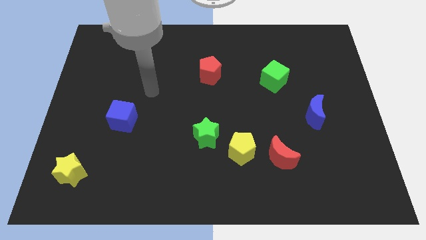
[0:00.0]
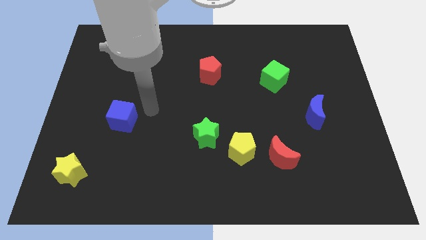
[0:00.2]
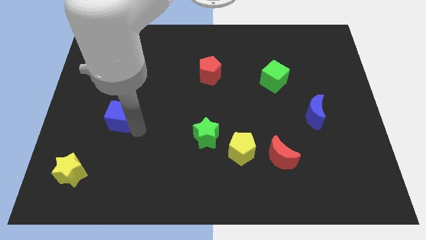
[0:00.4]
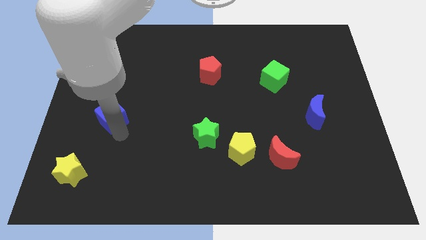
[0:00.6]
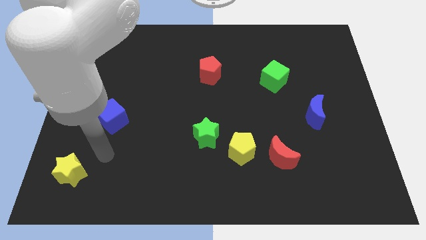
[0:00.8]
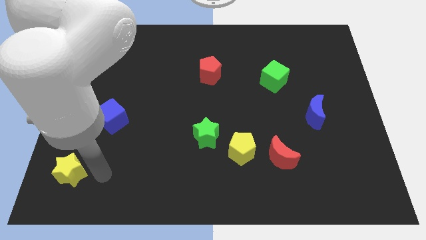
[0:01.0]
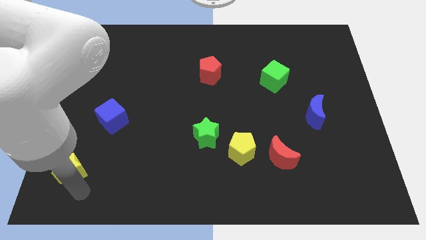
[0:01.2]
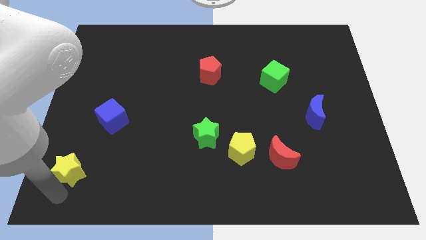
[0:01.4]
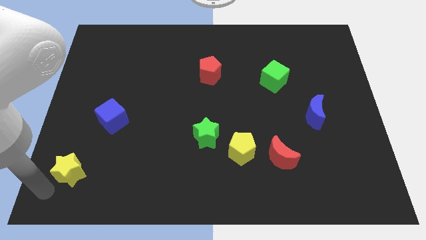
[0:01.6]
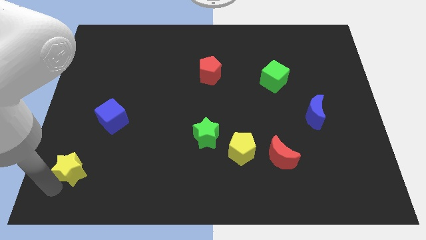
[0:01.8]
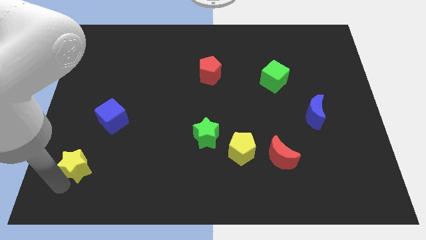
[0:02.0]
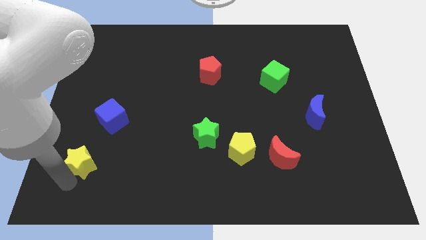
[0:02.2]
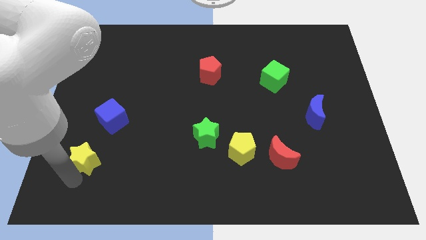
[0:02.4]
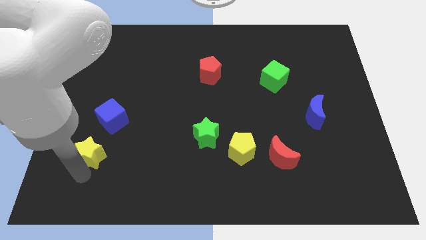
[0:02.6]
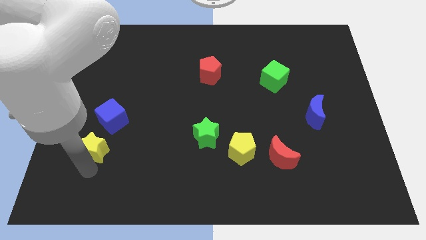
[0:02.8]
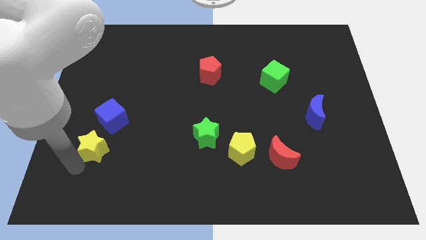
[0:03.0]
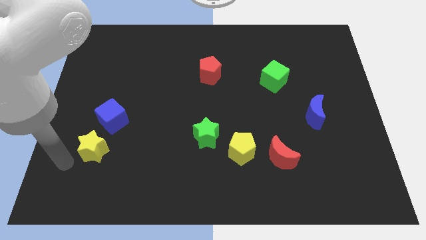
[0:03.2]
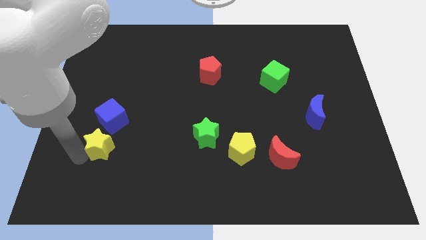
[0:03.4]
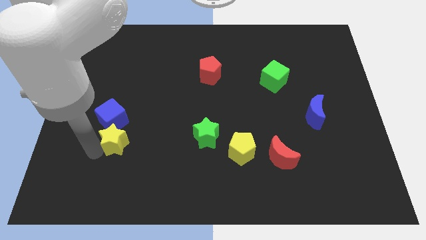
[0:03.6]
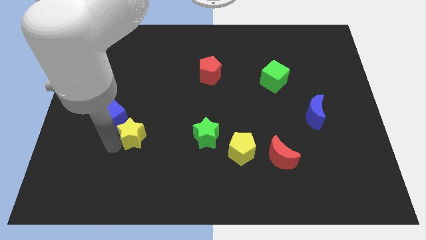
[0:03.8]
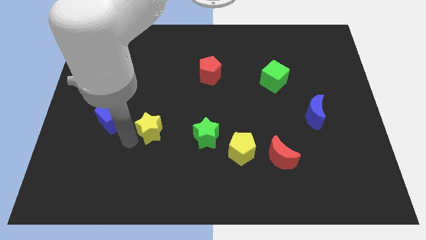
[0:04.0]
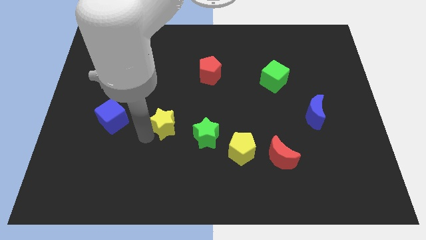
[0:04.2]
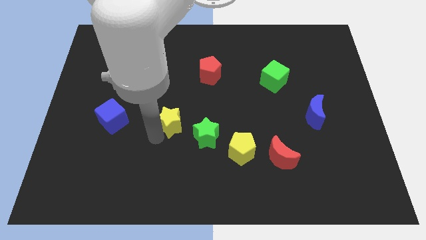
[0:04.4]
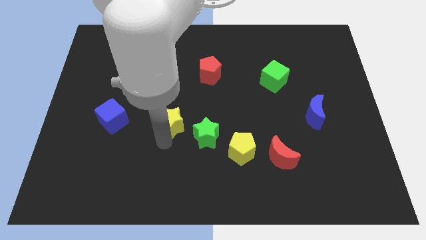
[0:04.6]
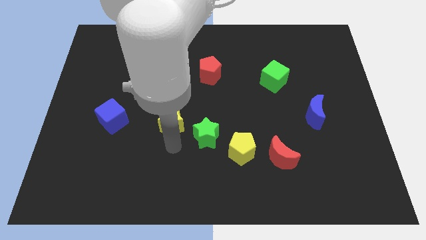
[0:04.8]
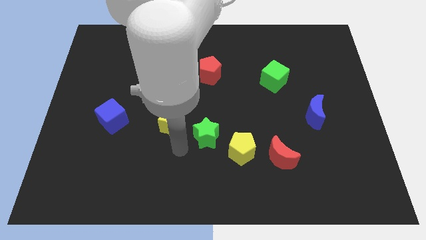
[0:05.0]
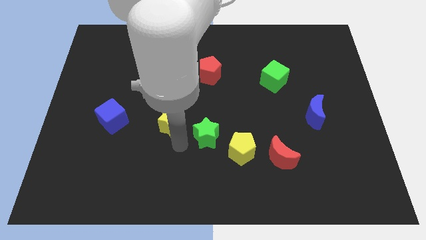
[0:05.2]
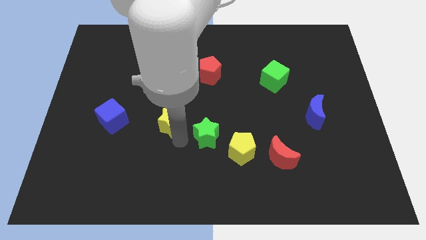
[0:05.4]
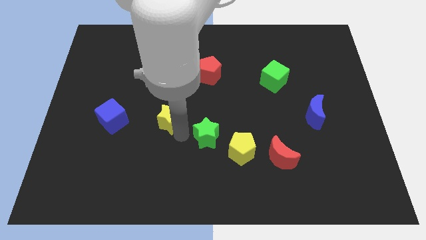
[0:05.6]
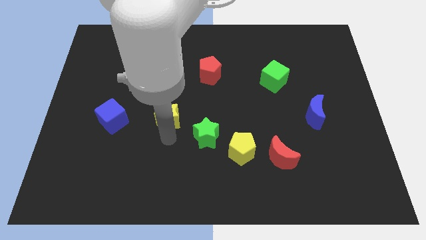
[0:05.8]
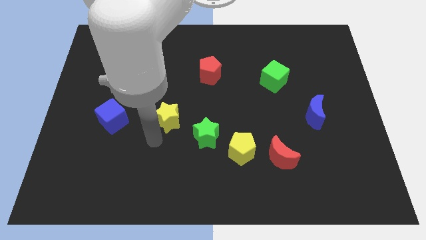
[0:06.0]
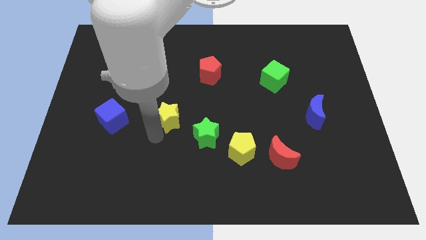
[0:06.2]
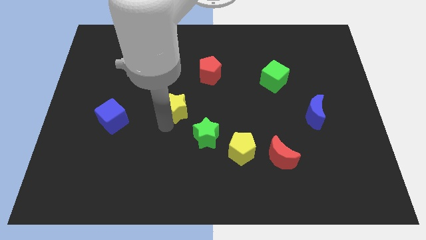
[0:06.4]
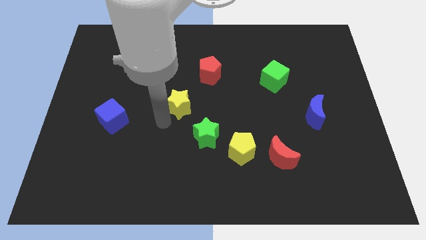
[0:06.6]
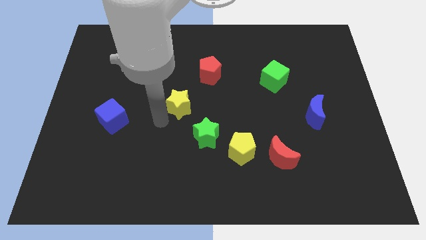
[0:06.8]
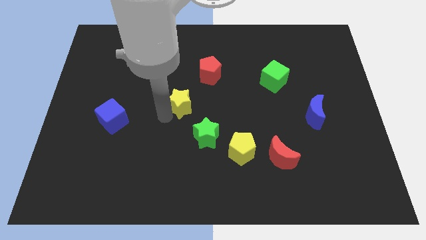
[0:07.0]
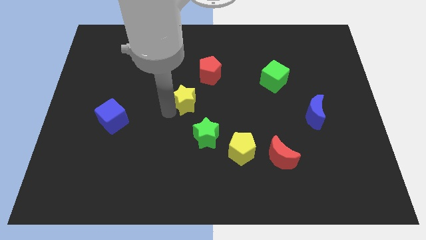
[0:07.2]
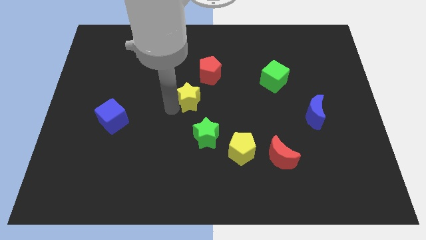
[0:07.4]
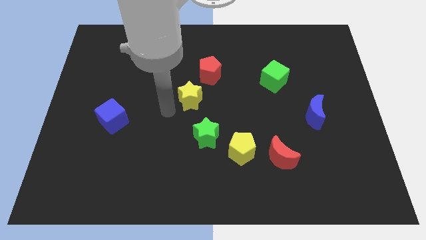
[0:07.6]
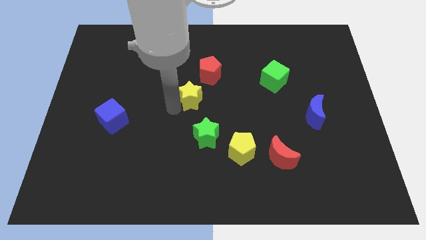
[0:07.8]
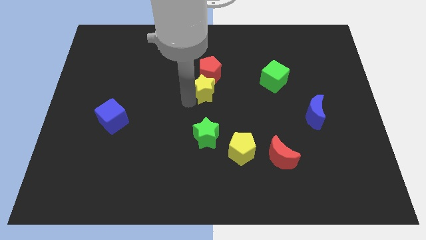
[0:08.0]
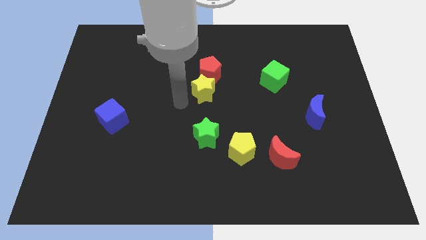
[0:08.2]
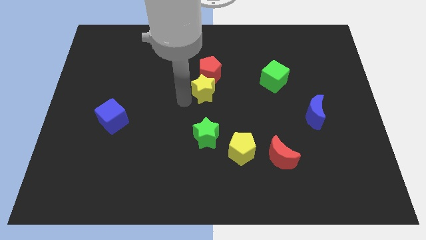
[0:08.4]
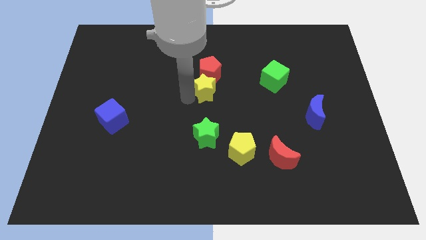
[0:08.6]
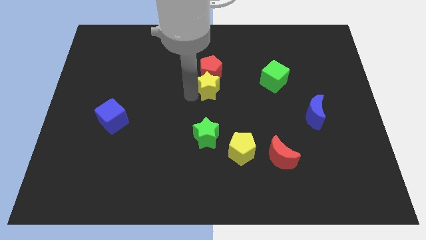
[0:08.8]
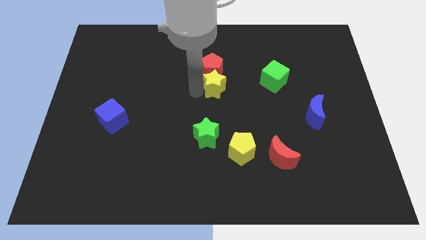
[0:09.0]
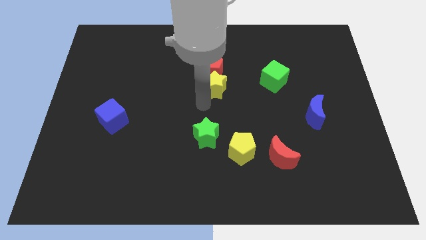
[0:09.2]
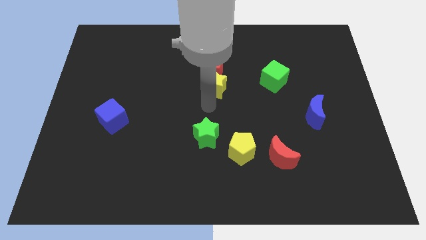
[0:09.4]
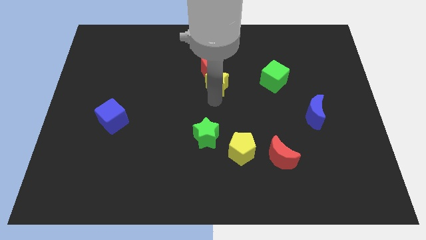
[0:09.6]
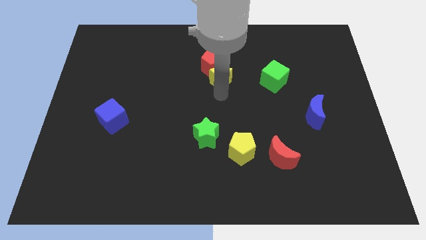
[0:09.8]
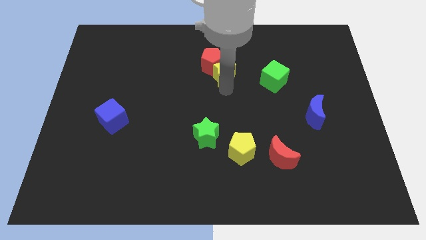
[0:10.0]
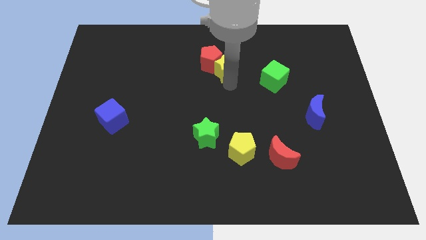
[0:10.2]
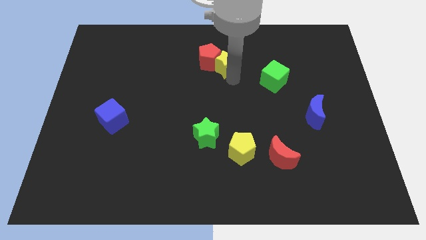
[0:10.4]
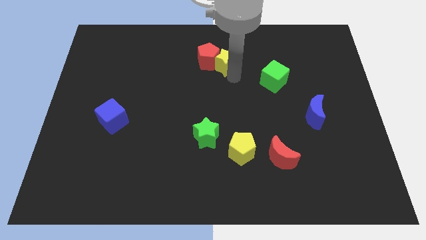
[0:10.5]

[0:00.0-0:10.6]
slide the yellow star to the top right side of the red pentagon

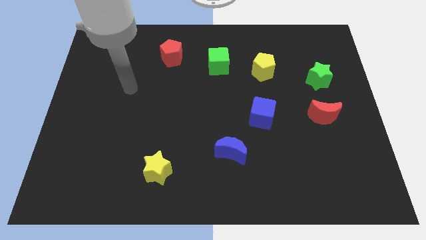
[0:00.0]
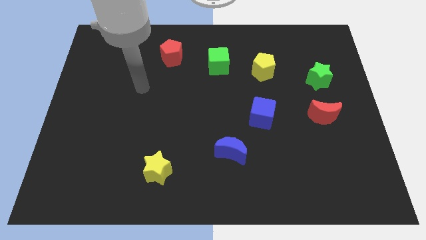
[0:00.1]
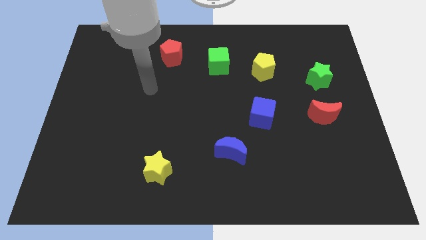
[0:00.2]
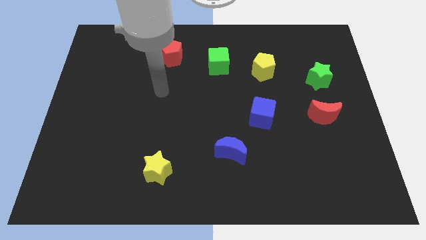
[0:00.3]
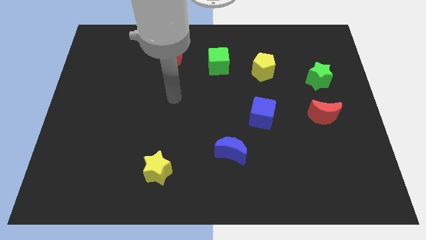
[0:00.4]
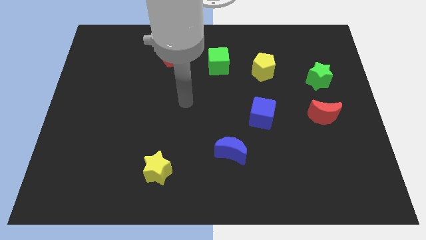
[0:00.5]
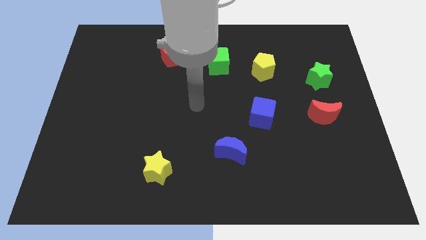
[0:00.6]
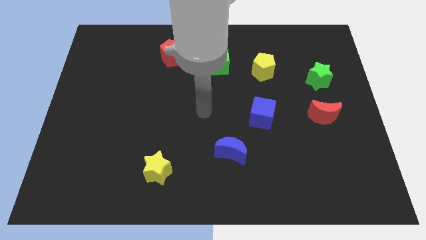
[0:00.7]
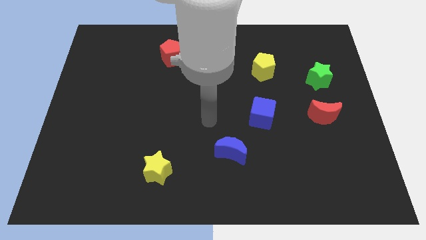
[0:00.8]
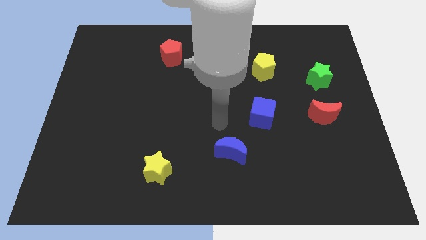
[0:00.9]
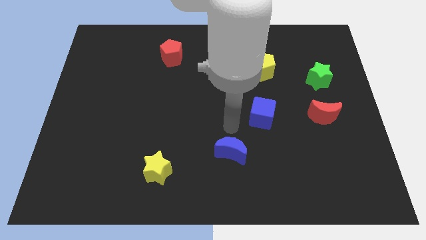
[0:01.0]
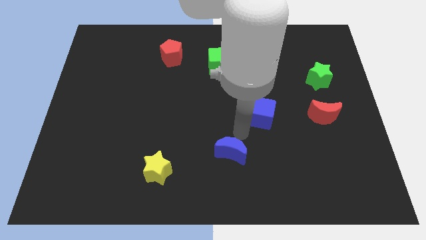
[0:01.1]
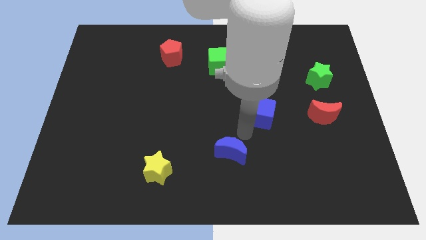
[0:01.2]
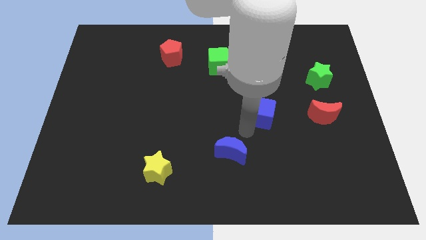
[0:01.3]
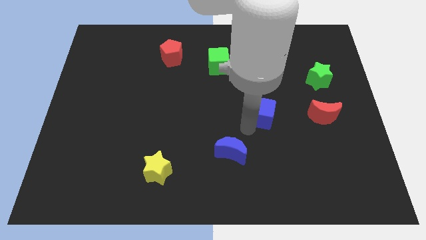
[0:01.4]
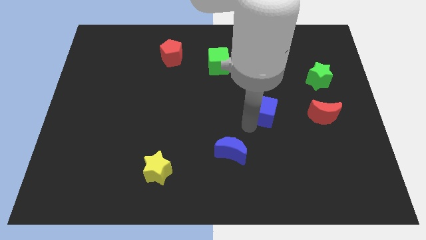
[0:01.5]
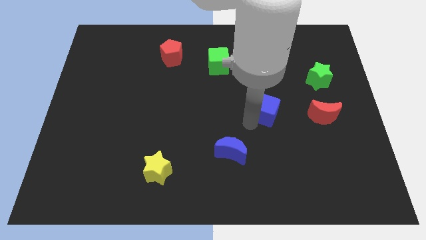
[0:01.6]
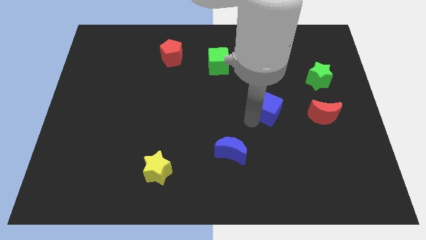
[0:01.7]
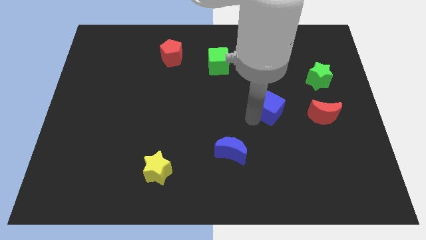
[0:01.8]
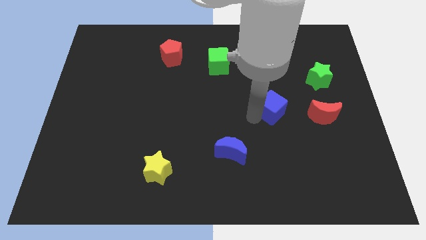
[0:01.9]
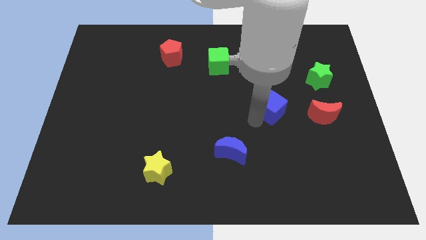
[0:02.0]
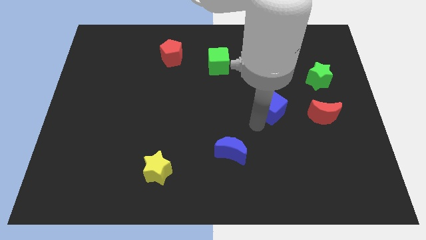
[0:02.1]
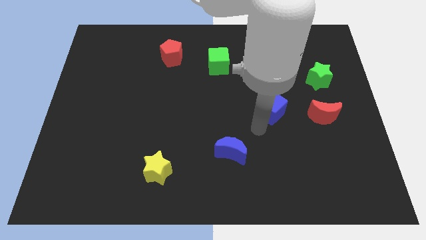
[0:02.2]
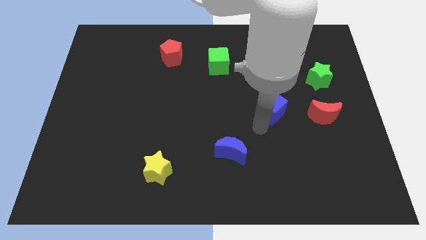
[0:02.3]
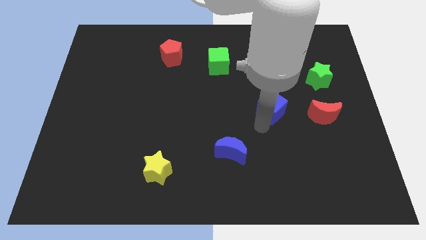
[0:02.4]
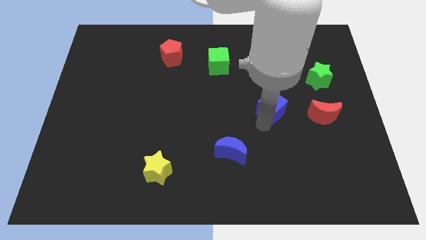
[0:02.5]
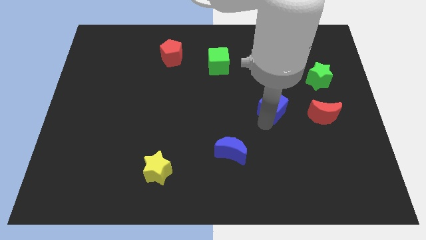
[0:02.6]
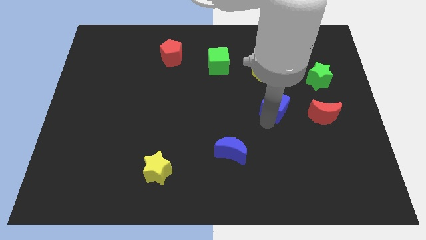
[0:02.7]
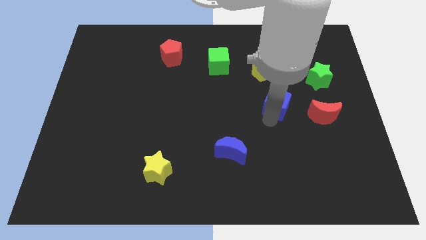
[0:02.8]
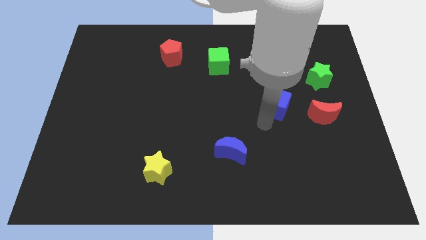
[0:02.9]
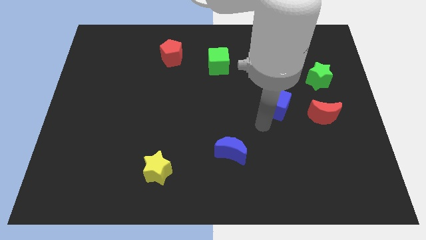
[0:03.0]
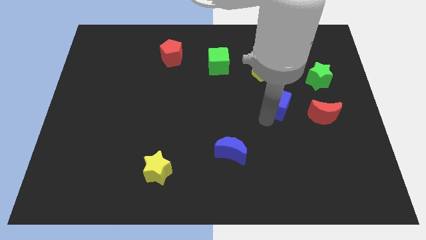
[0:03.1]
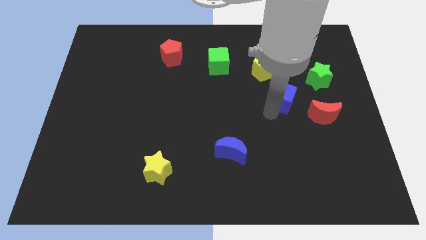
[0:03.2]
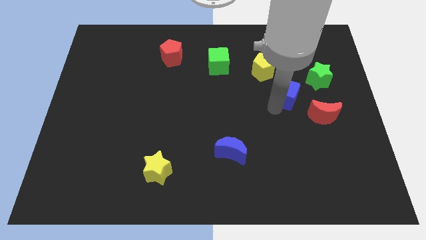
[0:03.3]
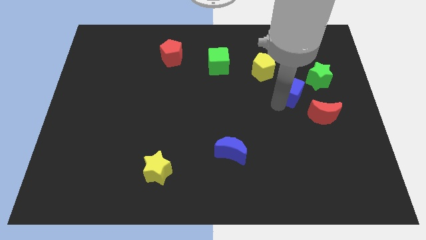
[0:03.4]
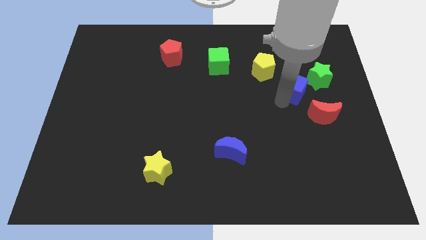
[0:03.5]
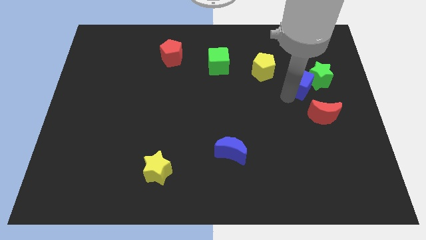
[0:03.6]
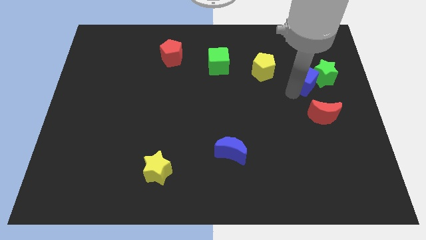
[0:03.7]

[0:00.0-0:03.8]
slide the blue cube to the right of the yellow pentagon
